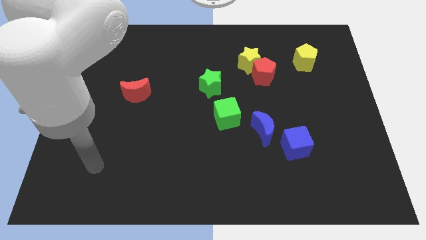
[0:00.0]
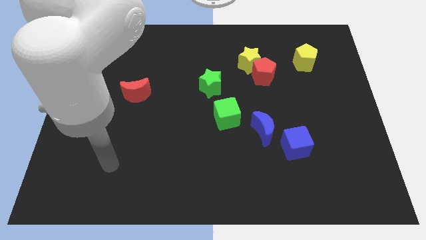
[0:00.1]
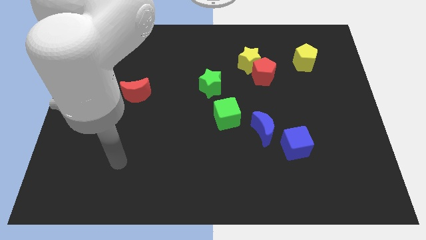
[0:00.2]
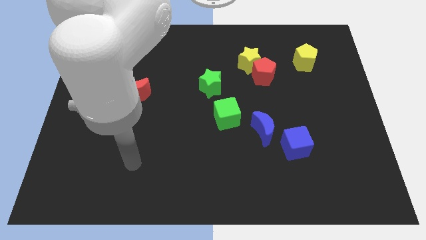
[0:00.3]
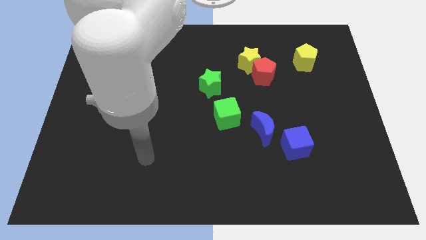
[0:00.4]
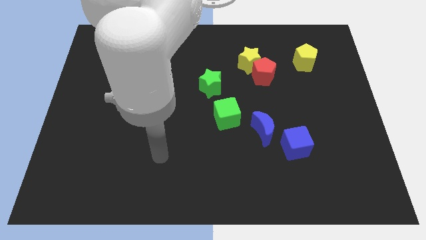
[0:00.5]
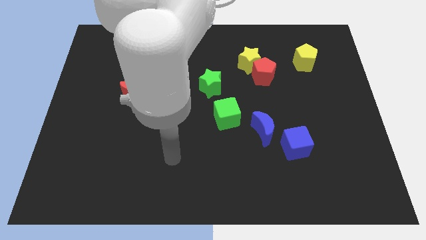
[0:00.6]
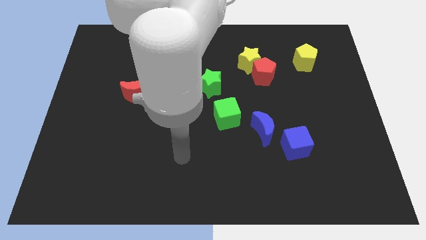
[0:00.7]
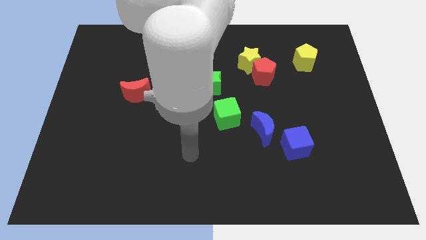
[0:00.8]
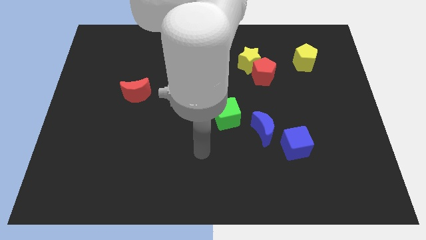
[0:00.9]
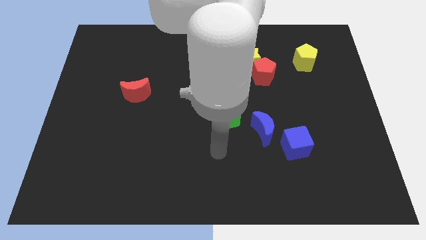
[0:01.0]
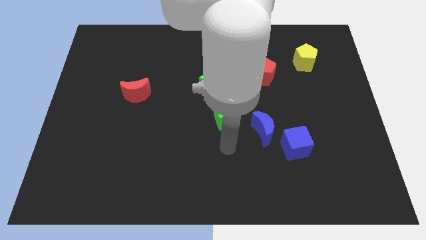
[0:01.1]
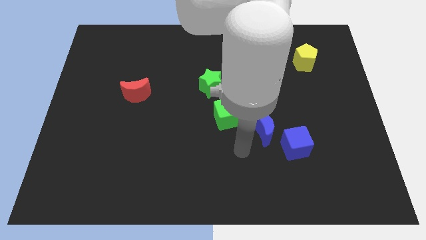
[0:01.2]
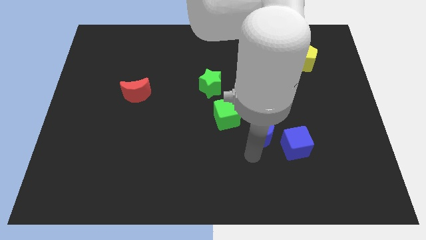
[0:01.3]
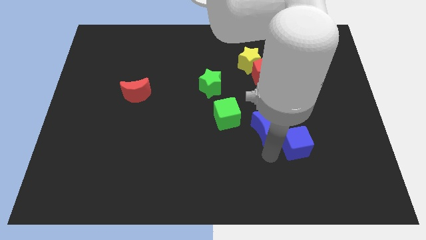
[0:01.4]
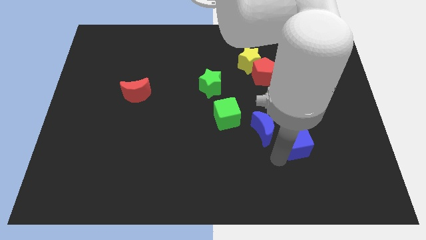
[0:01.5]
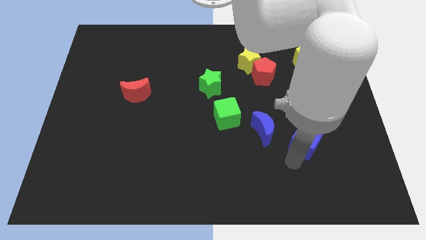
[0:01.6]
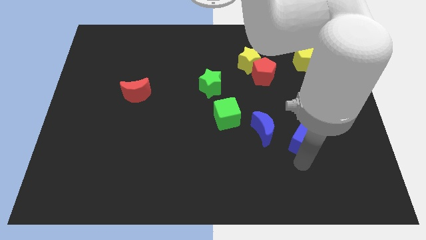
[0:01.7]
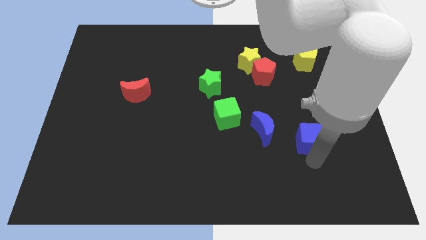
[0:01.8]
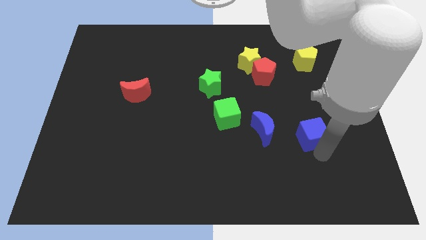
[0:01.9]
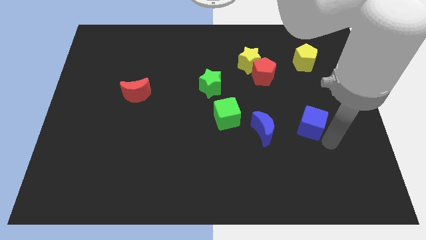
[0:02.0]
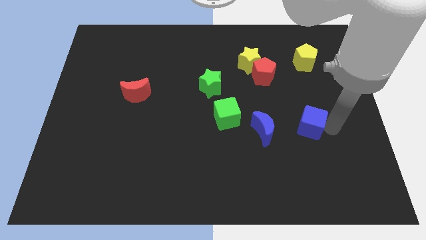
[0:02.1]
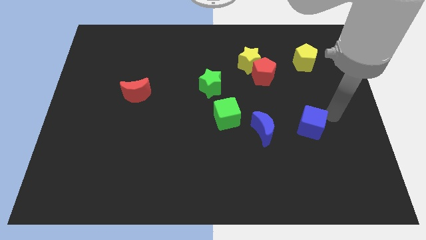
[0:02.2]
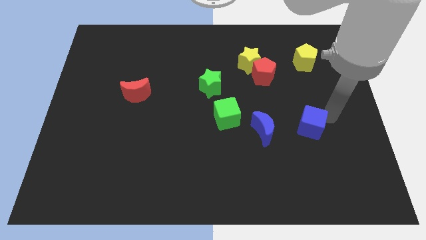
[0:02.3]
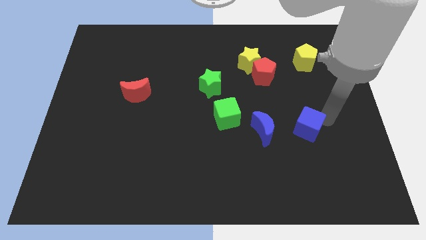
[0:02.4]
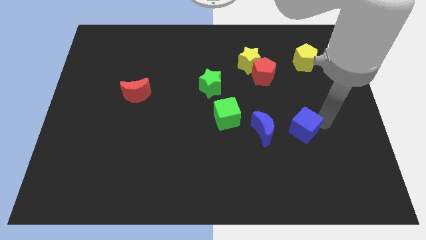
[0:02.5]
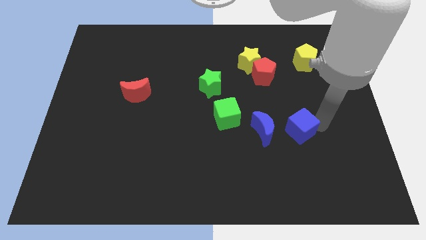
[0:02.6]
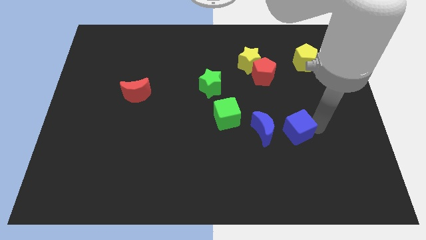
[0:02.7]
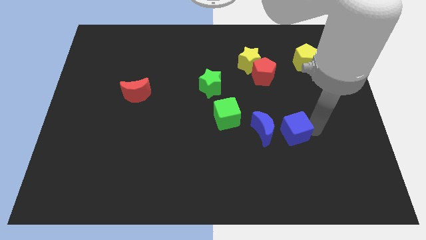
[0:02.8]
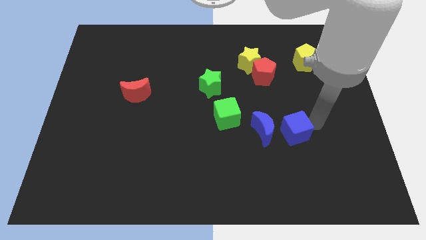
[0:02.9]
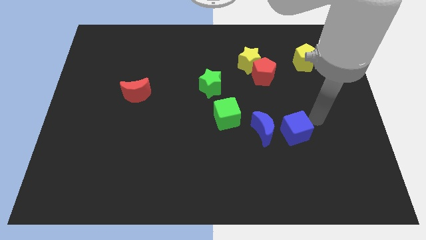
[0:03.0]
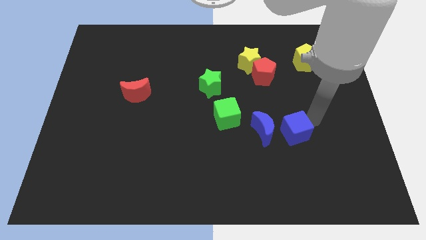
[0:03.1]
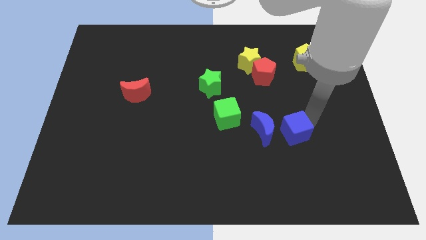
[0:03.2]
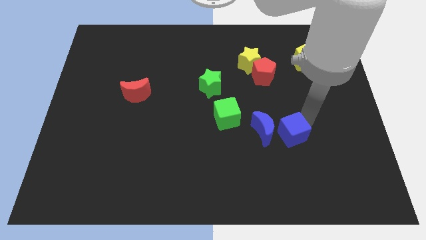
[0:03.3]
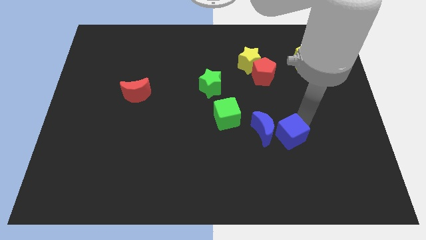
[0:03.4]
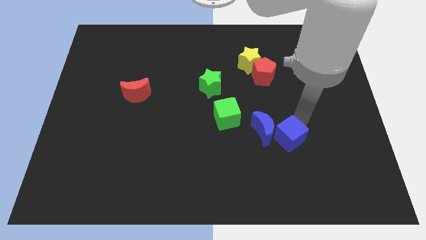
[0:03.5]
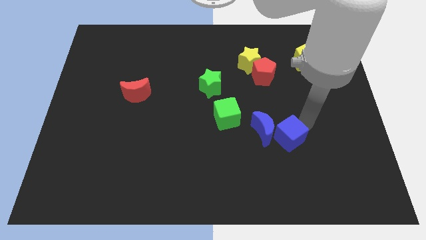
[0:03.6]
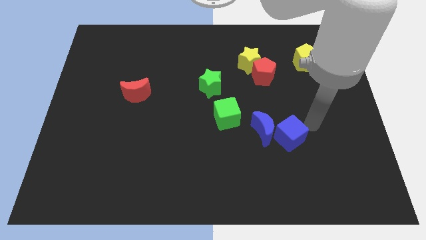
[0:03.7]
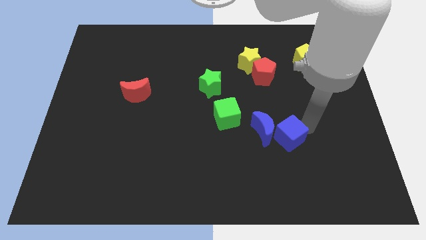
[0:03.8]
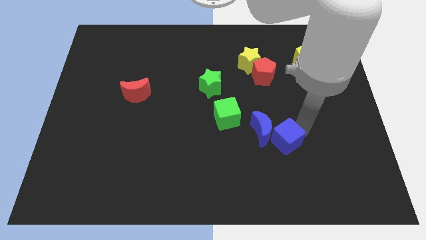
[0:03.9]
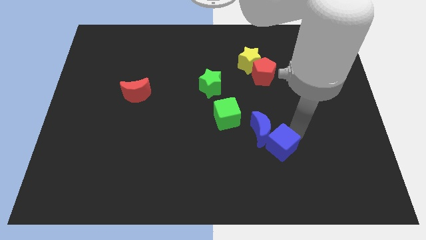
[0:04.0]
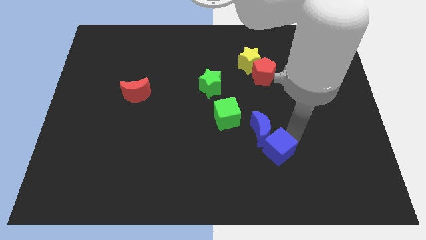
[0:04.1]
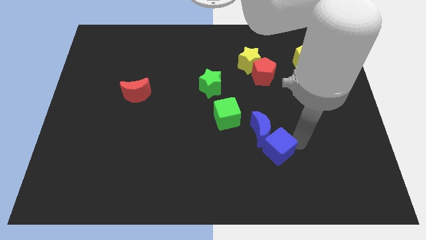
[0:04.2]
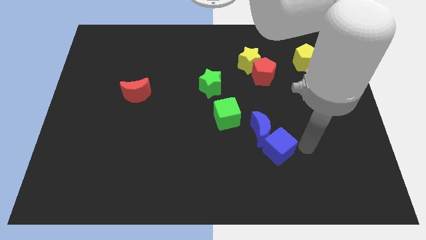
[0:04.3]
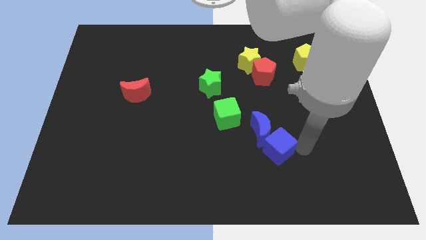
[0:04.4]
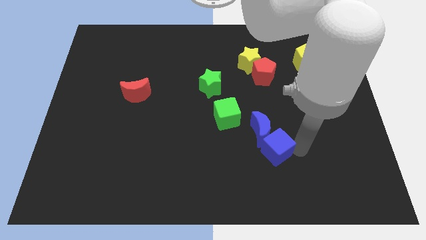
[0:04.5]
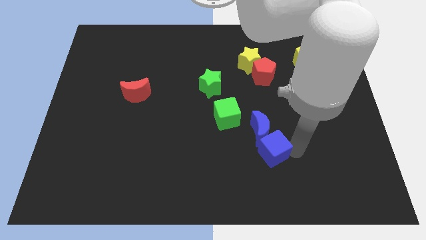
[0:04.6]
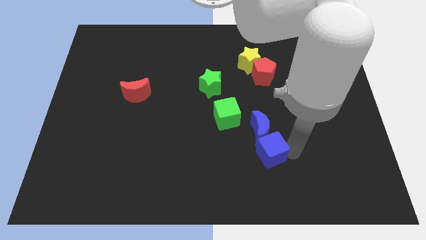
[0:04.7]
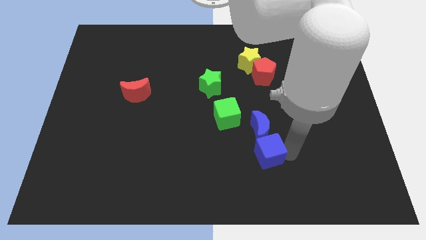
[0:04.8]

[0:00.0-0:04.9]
move the blue cube to the bottom left of the blue moon

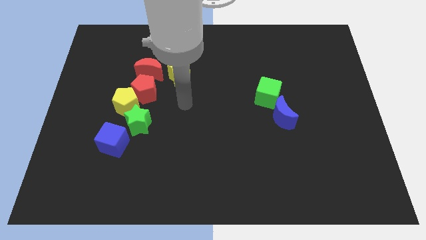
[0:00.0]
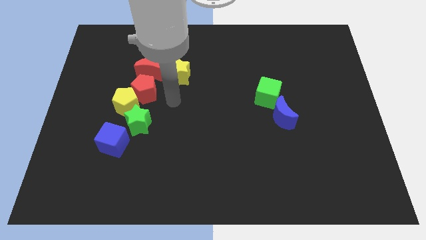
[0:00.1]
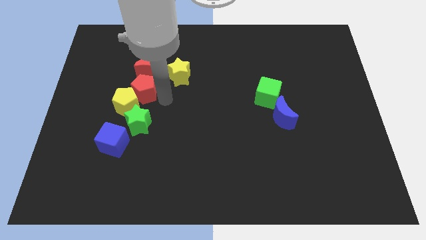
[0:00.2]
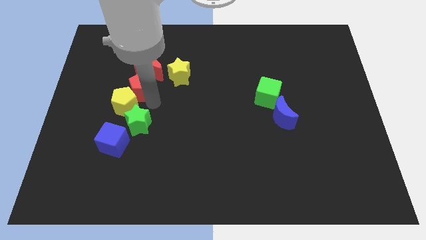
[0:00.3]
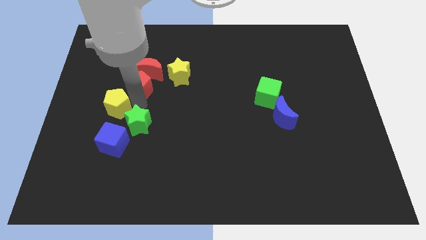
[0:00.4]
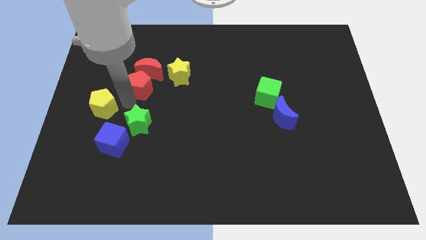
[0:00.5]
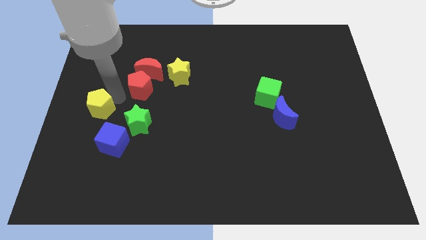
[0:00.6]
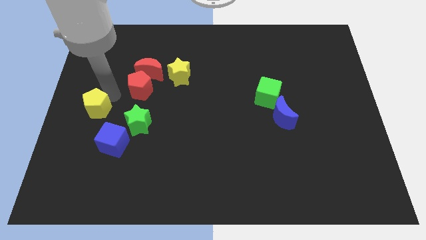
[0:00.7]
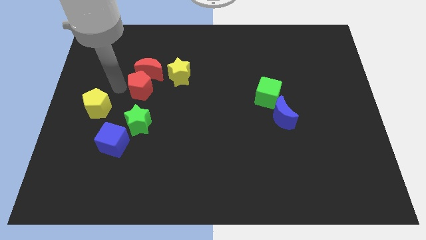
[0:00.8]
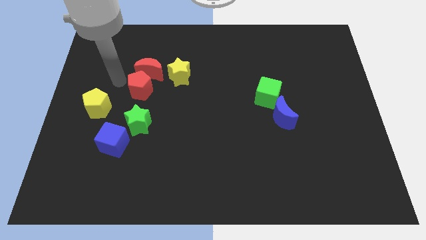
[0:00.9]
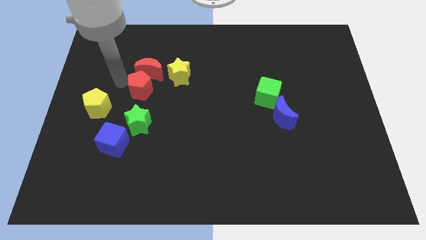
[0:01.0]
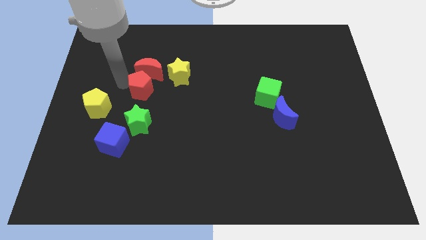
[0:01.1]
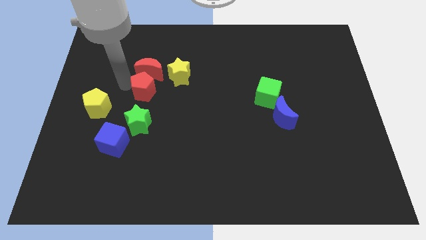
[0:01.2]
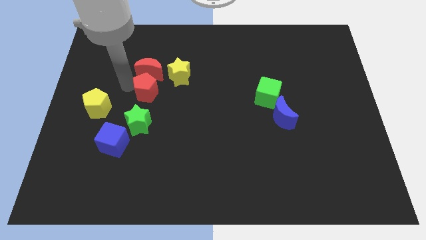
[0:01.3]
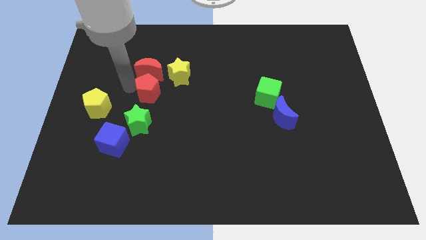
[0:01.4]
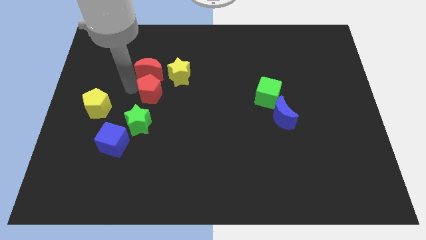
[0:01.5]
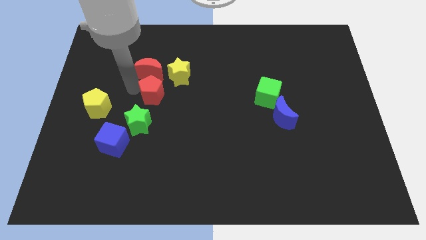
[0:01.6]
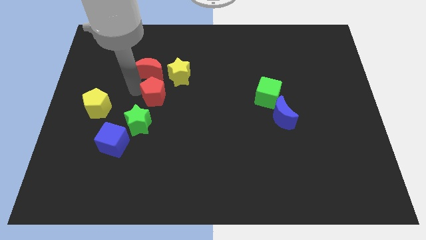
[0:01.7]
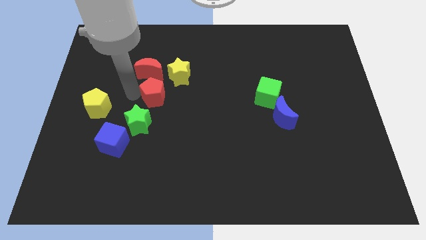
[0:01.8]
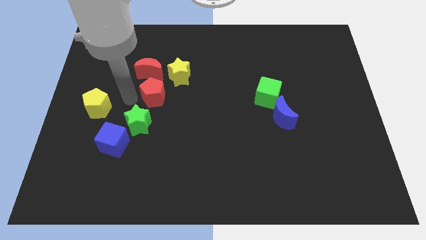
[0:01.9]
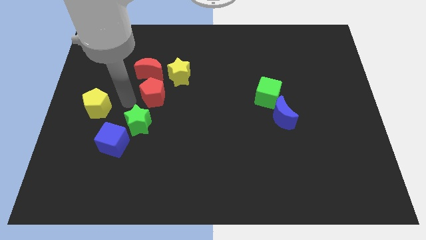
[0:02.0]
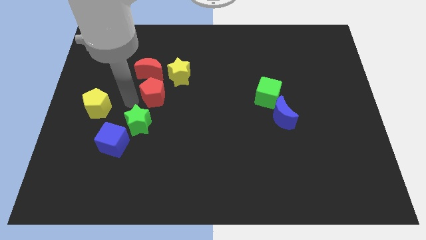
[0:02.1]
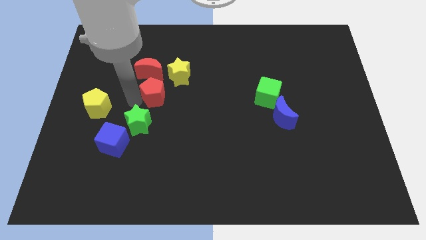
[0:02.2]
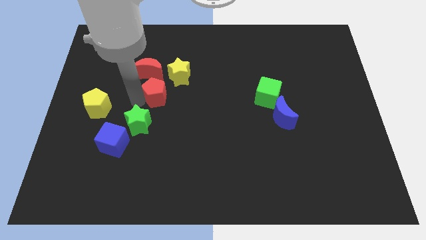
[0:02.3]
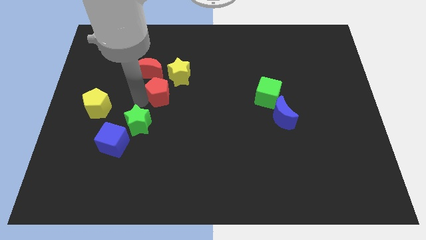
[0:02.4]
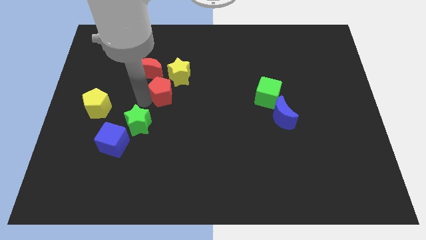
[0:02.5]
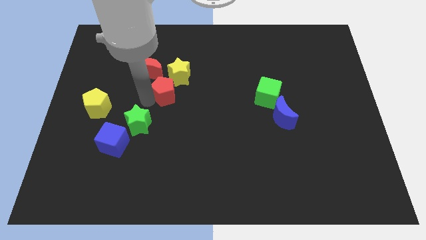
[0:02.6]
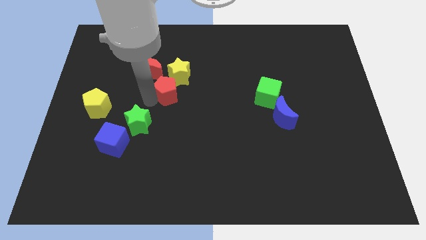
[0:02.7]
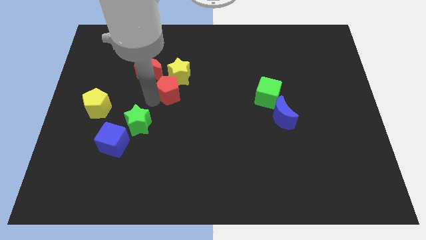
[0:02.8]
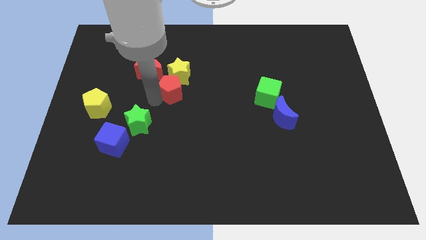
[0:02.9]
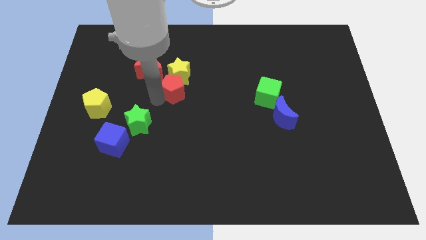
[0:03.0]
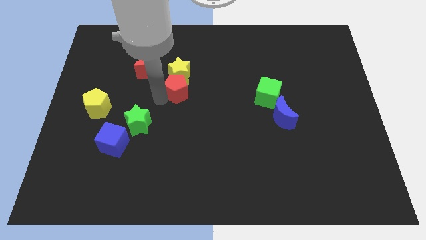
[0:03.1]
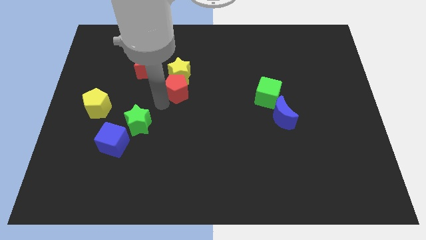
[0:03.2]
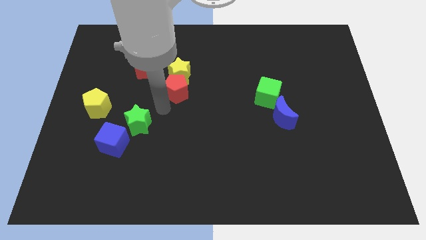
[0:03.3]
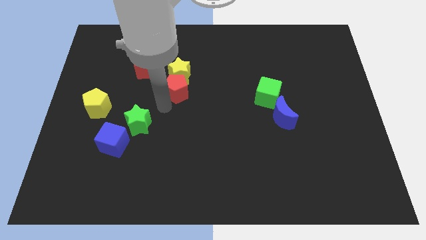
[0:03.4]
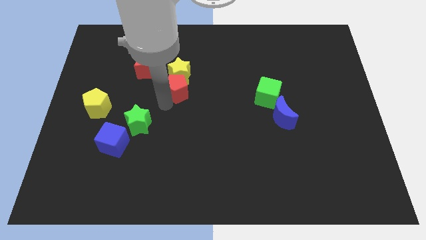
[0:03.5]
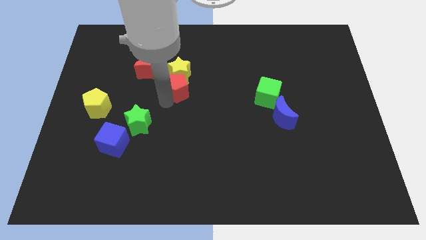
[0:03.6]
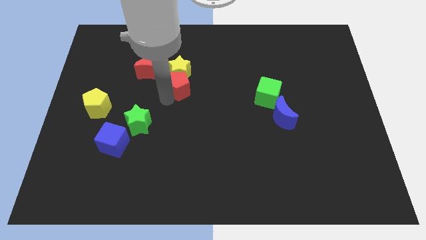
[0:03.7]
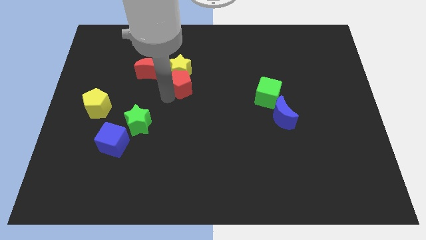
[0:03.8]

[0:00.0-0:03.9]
put the red pentagon to the right side of the red moon
